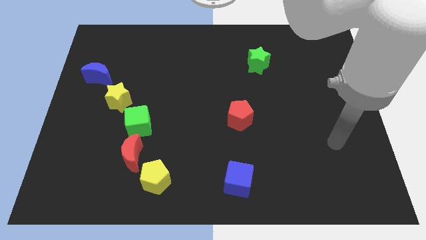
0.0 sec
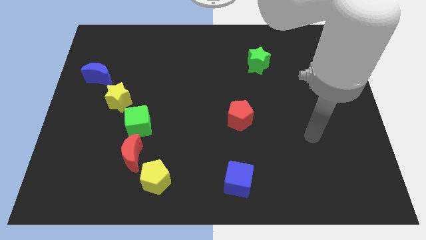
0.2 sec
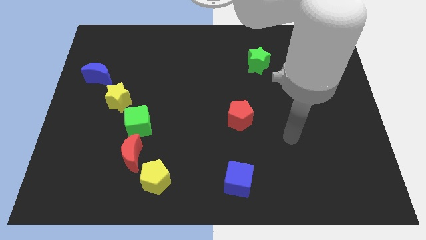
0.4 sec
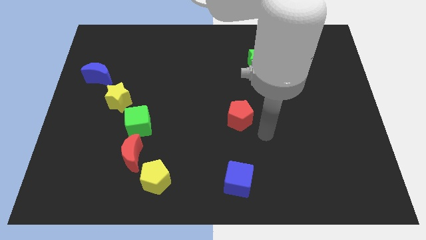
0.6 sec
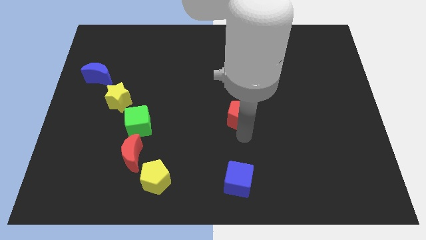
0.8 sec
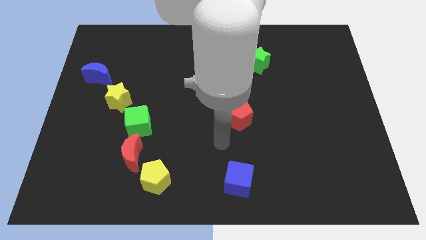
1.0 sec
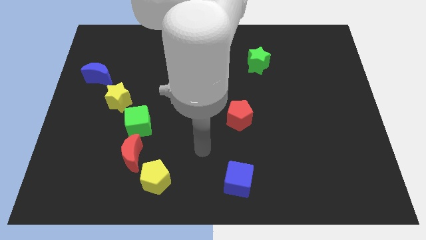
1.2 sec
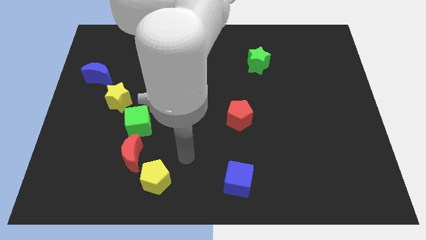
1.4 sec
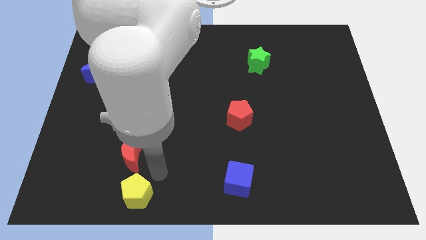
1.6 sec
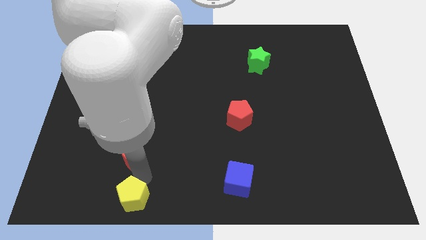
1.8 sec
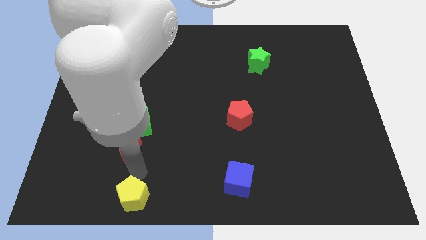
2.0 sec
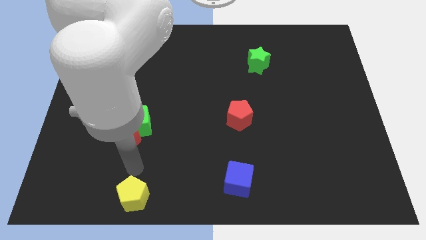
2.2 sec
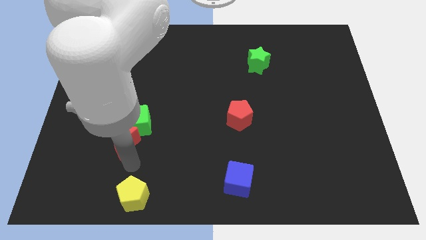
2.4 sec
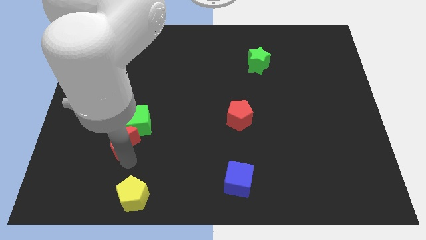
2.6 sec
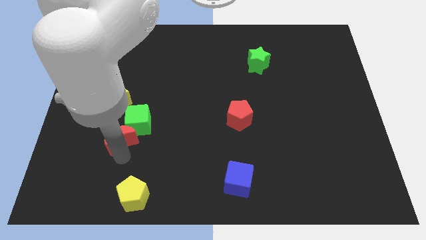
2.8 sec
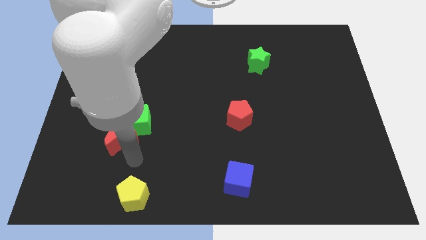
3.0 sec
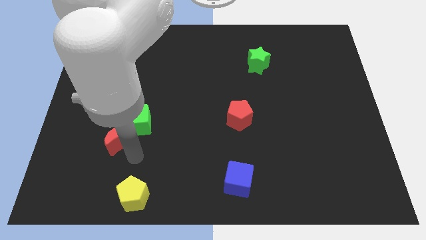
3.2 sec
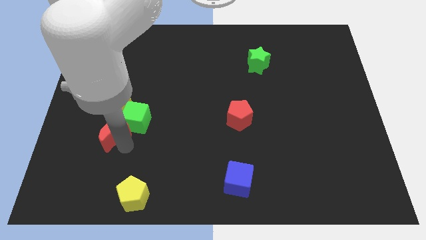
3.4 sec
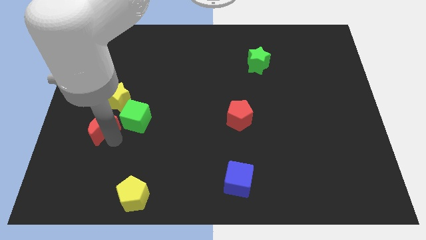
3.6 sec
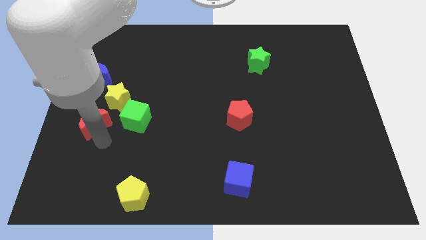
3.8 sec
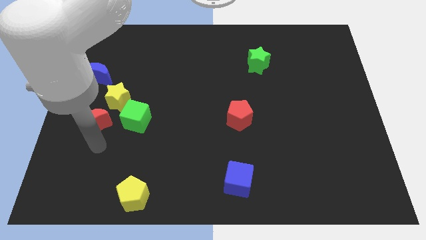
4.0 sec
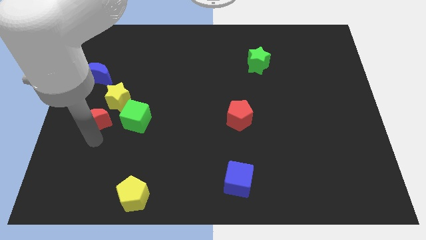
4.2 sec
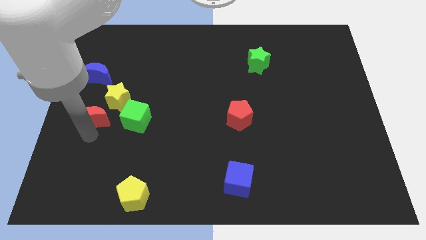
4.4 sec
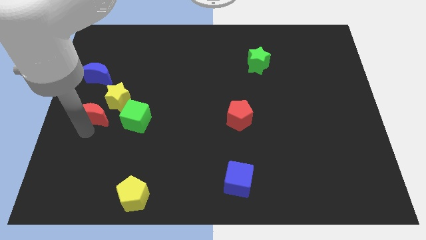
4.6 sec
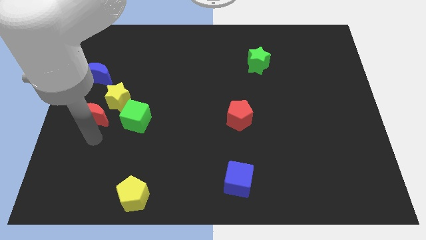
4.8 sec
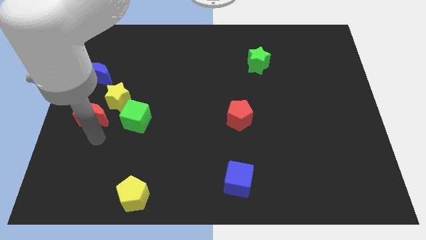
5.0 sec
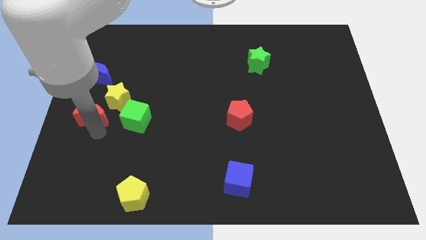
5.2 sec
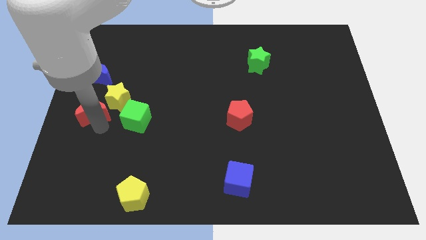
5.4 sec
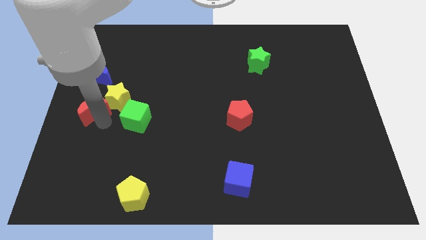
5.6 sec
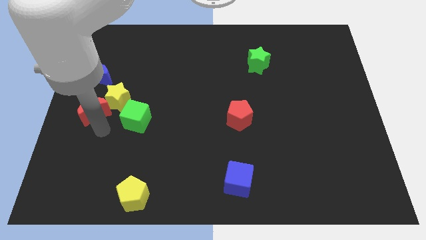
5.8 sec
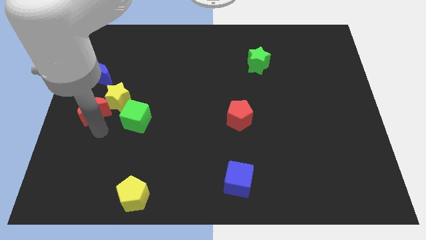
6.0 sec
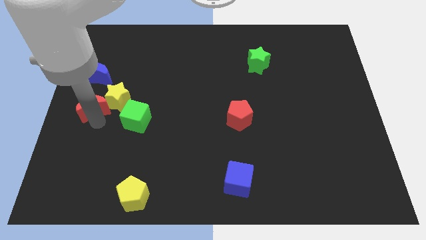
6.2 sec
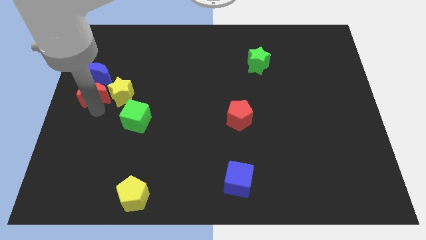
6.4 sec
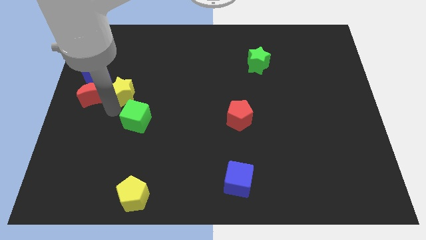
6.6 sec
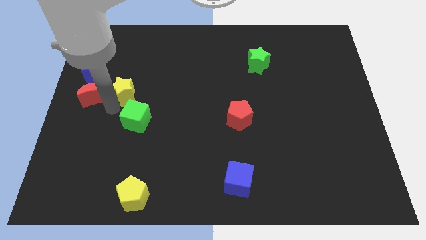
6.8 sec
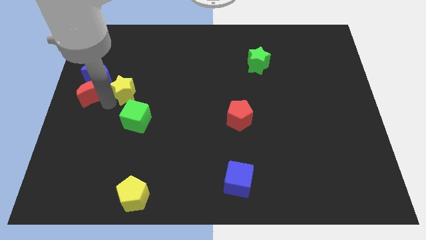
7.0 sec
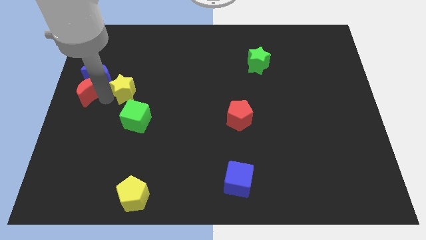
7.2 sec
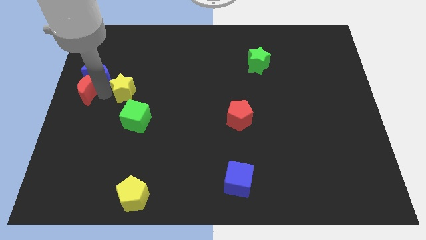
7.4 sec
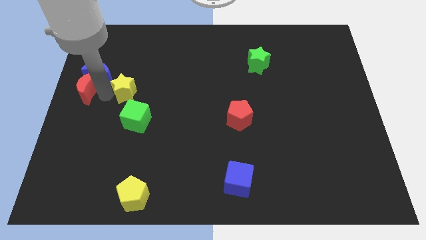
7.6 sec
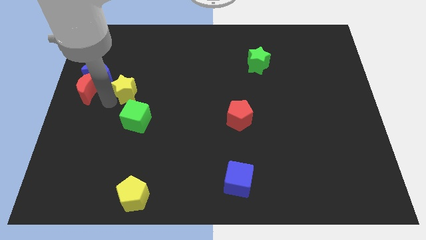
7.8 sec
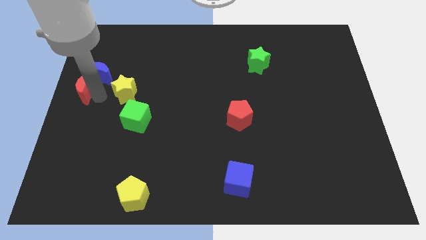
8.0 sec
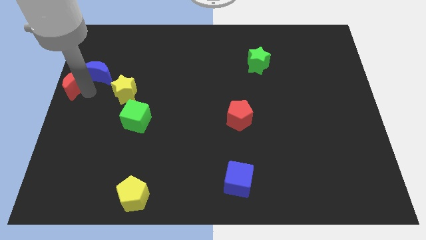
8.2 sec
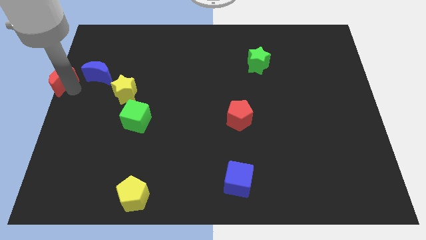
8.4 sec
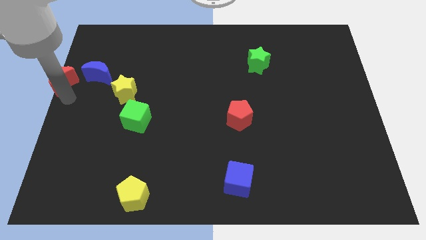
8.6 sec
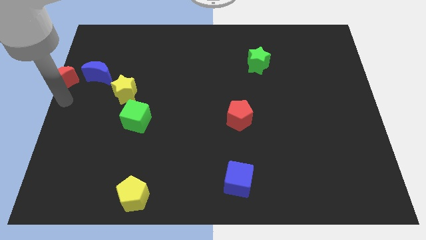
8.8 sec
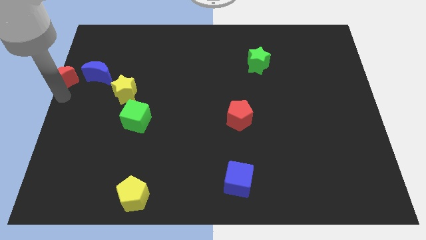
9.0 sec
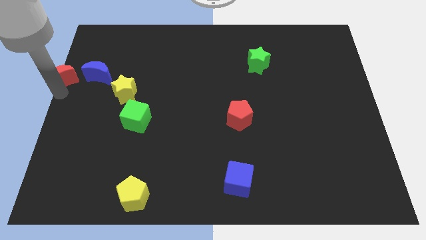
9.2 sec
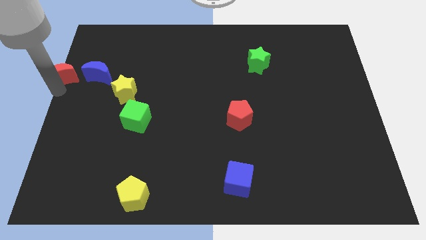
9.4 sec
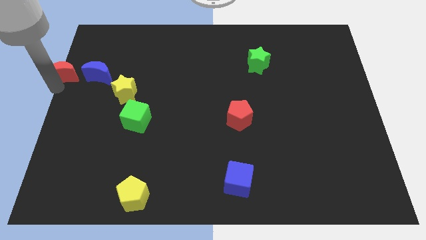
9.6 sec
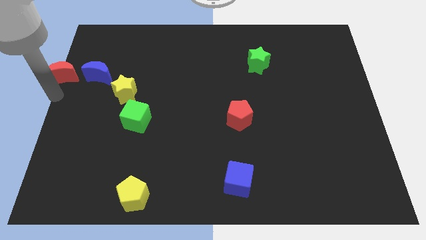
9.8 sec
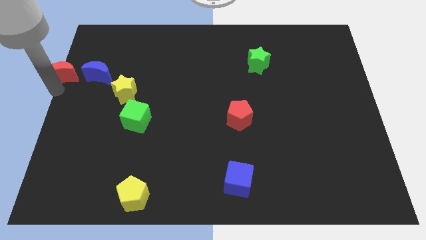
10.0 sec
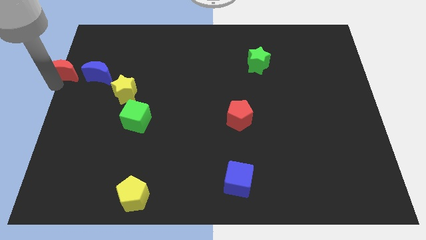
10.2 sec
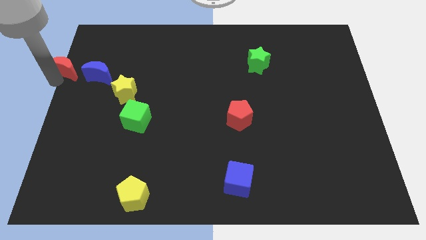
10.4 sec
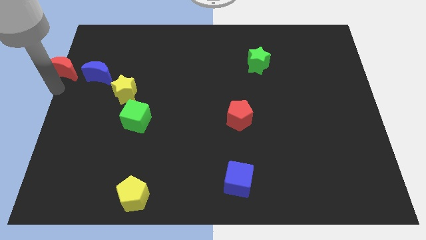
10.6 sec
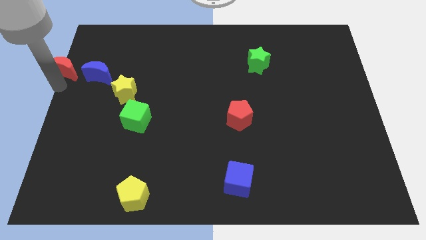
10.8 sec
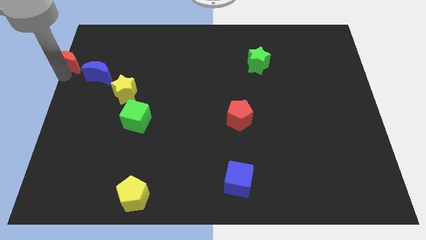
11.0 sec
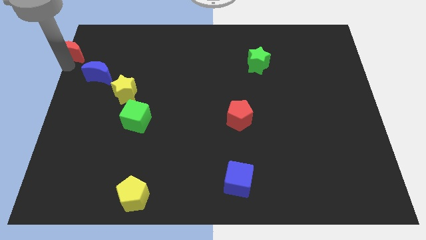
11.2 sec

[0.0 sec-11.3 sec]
move the red moon to the top left
